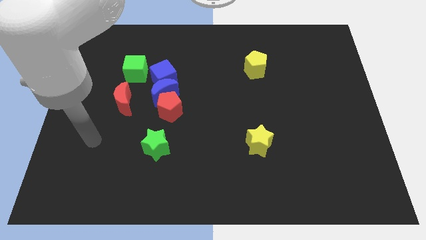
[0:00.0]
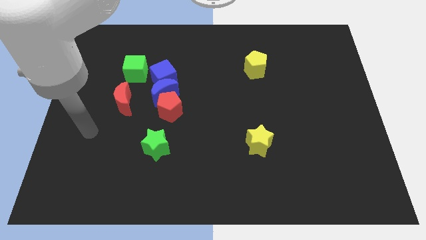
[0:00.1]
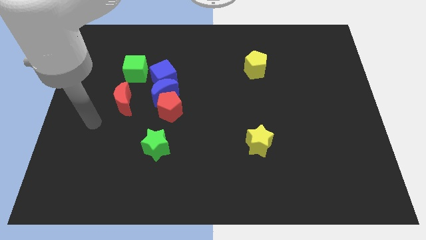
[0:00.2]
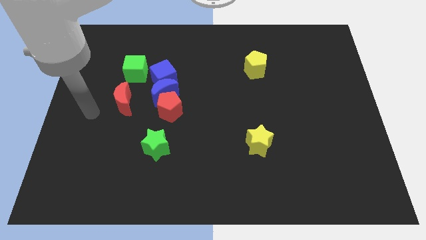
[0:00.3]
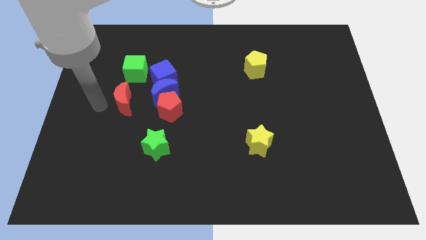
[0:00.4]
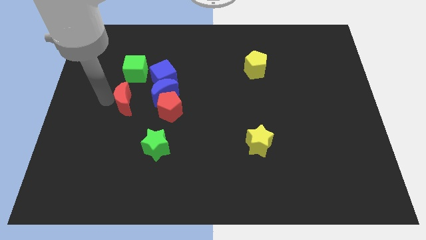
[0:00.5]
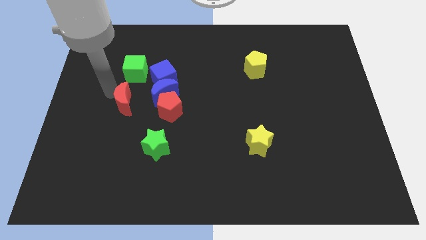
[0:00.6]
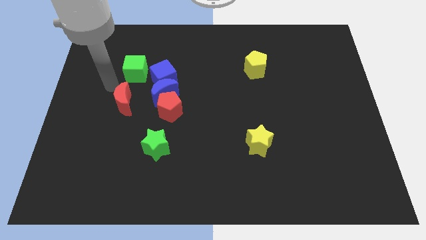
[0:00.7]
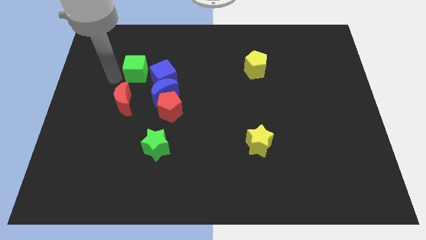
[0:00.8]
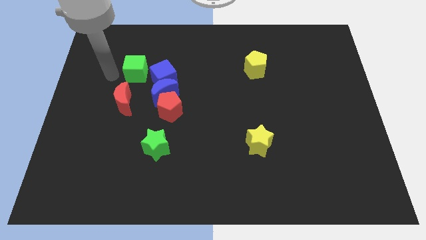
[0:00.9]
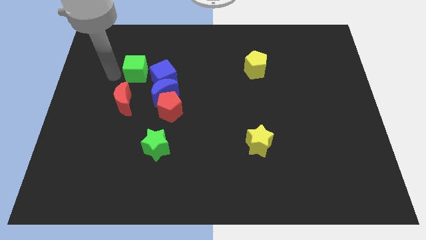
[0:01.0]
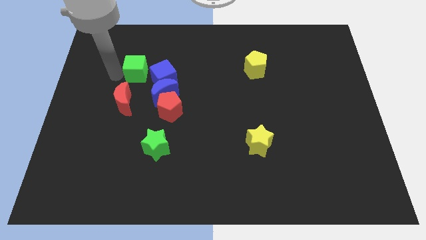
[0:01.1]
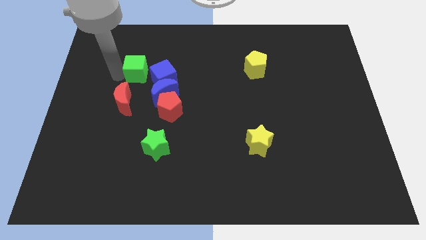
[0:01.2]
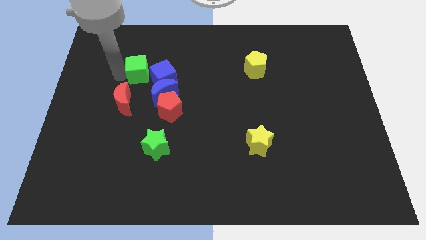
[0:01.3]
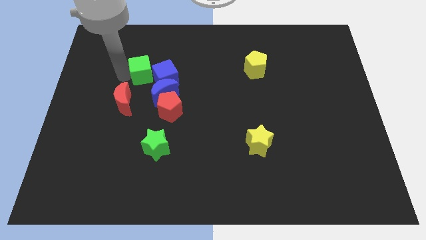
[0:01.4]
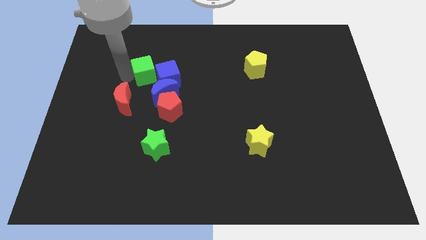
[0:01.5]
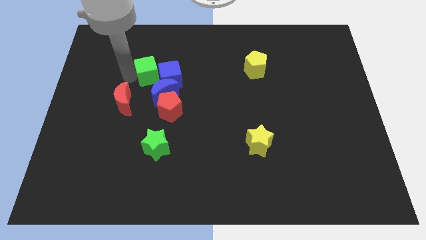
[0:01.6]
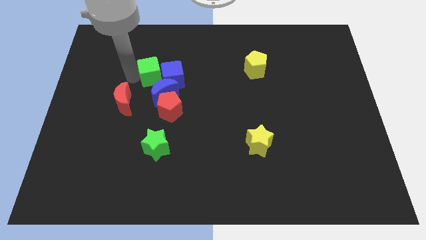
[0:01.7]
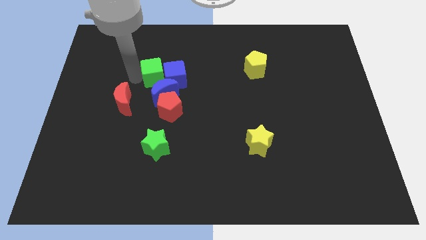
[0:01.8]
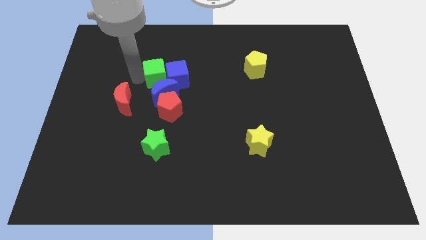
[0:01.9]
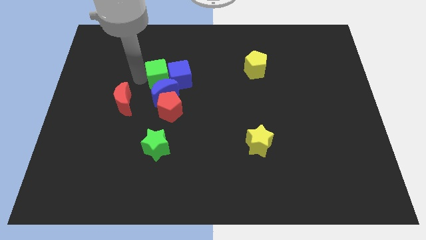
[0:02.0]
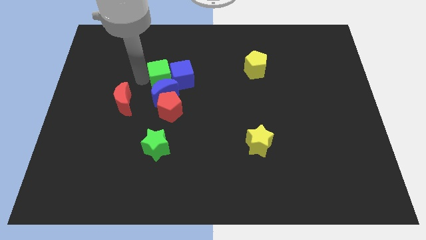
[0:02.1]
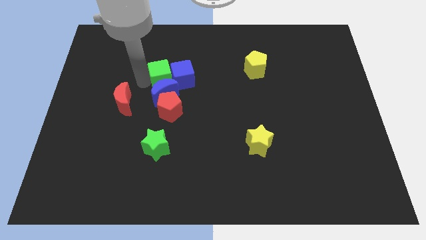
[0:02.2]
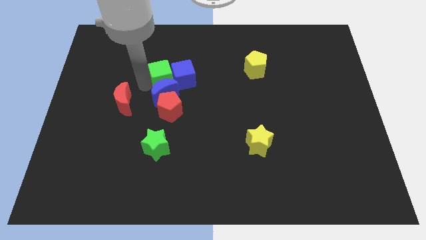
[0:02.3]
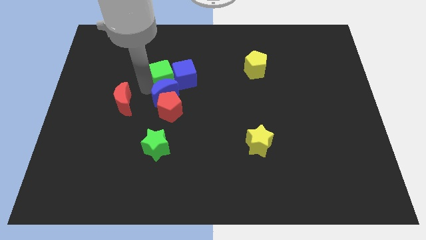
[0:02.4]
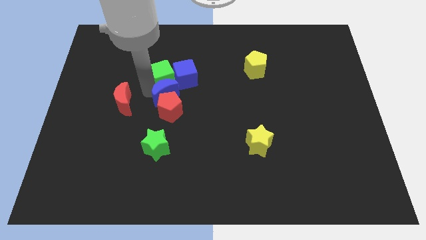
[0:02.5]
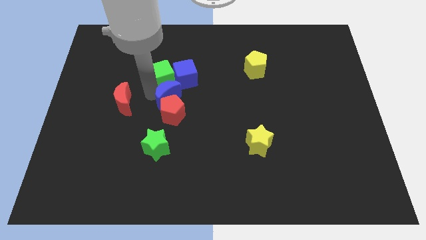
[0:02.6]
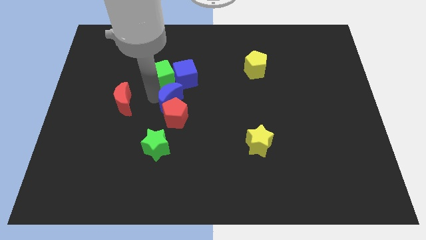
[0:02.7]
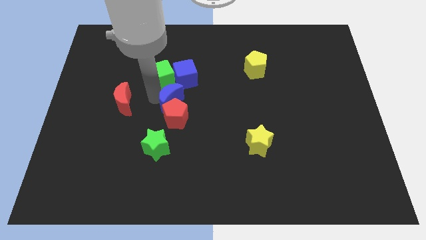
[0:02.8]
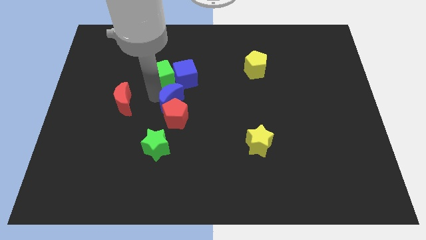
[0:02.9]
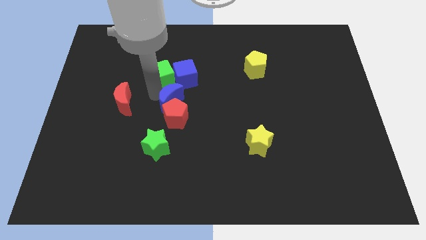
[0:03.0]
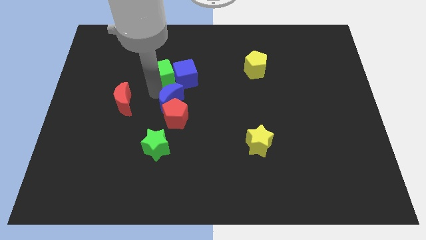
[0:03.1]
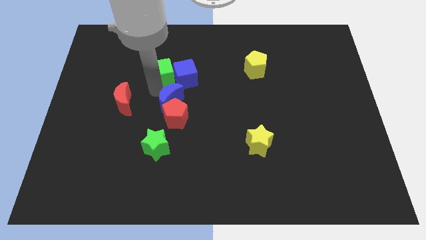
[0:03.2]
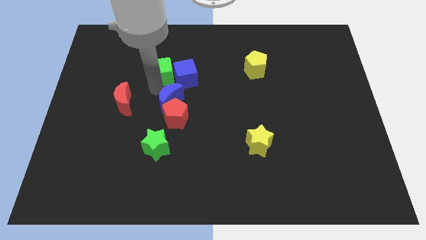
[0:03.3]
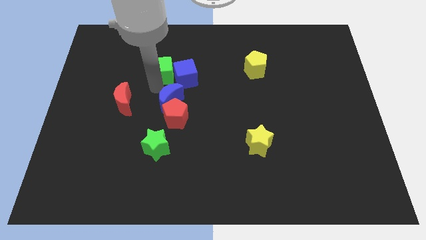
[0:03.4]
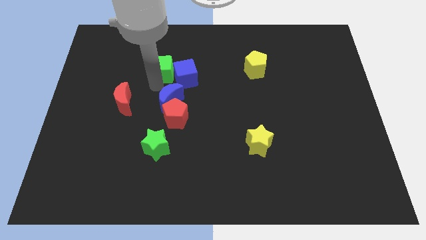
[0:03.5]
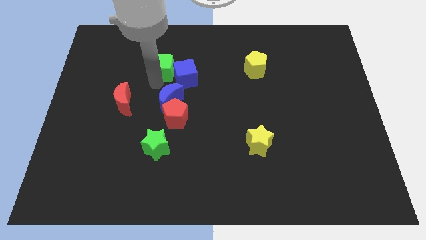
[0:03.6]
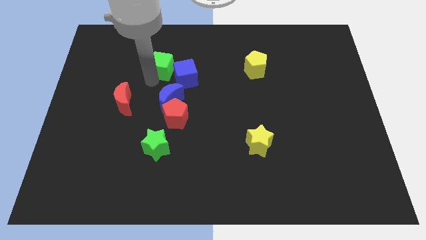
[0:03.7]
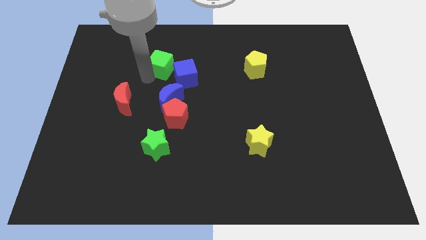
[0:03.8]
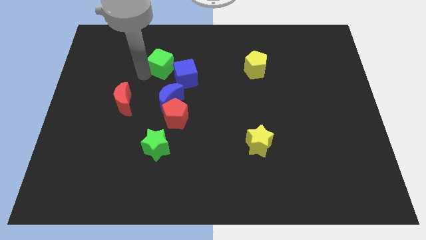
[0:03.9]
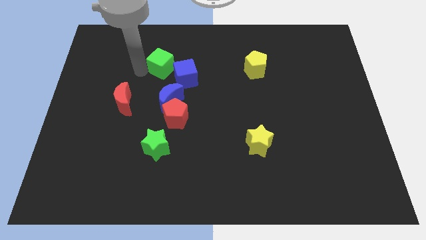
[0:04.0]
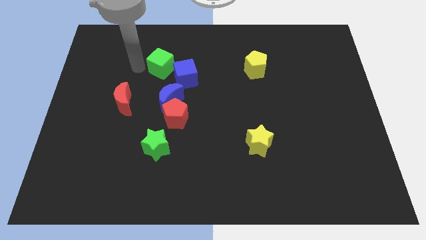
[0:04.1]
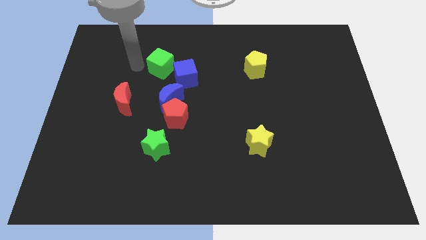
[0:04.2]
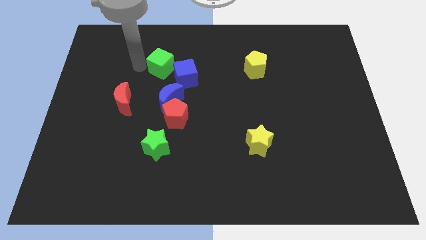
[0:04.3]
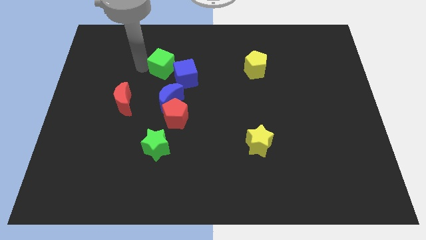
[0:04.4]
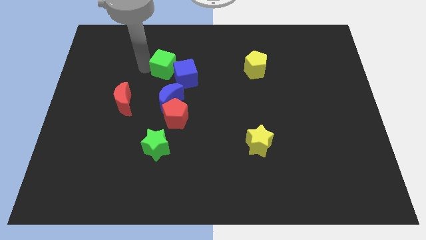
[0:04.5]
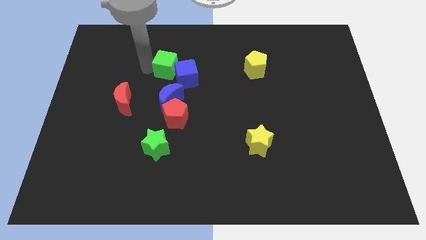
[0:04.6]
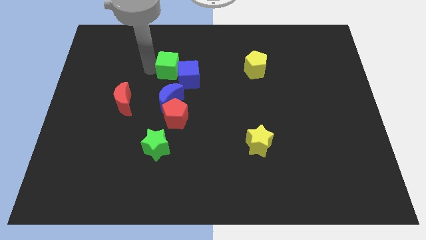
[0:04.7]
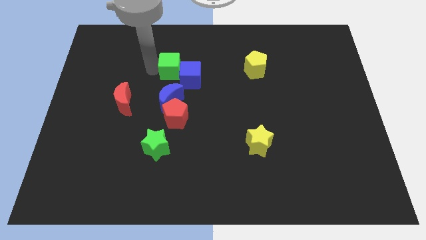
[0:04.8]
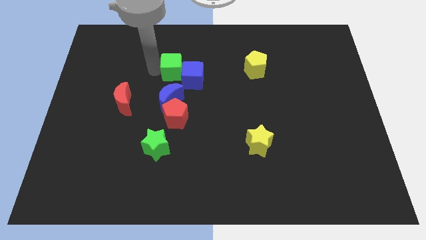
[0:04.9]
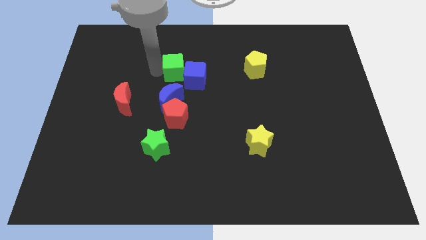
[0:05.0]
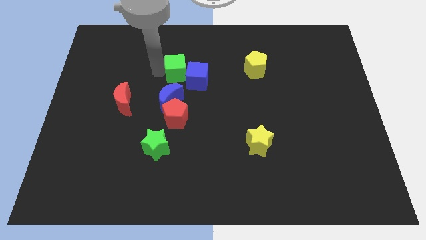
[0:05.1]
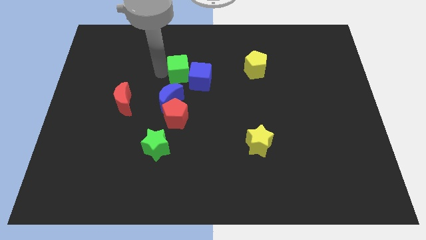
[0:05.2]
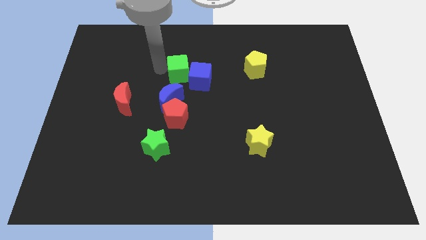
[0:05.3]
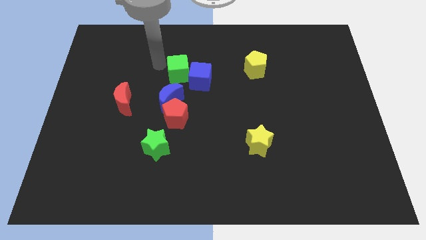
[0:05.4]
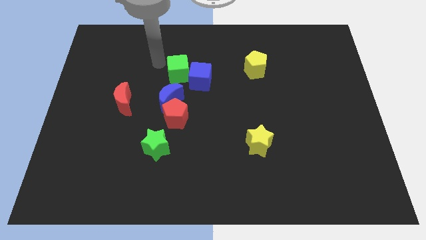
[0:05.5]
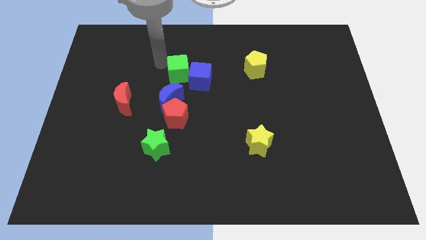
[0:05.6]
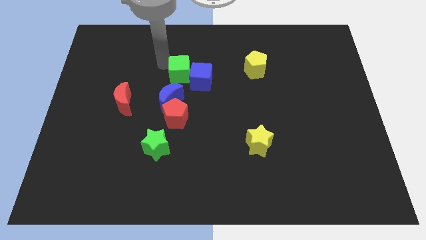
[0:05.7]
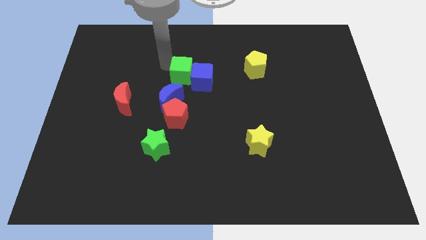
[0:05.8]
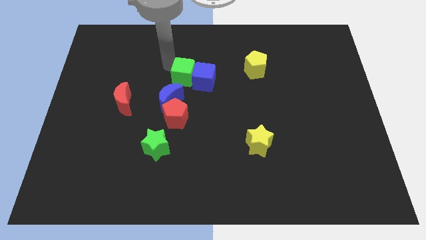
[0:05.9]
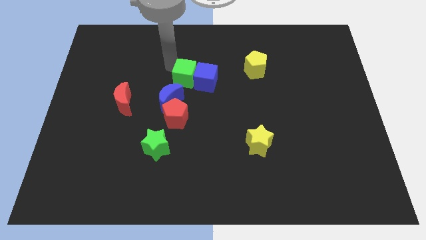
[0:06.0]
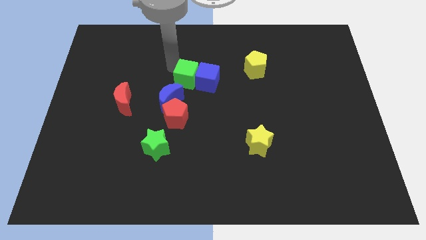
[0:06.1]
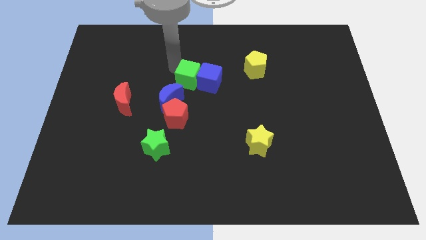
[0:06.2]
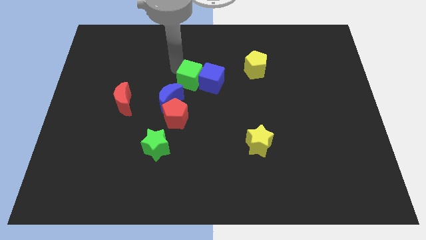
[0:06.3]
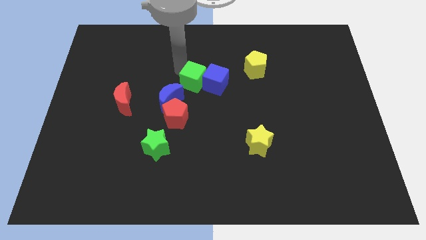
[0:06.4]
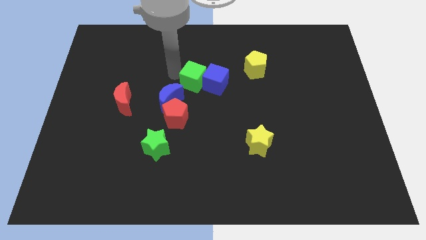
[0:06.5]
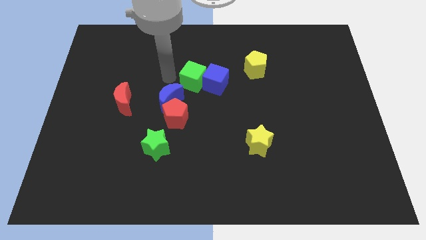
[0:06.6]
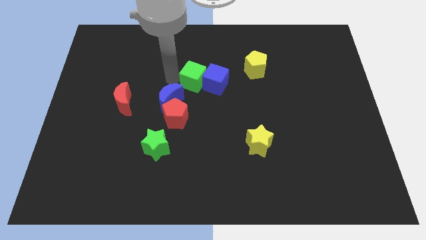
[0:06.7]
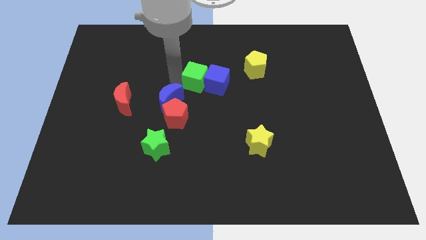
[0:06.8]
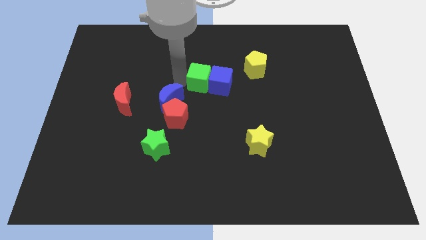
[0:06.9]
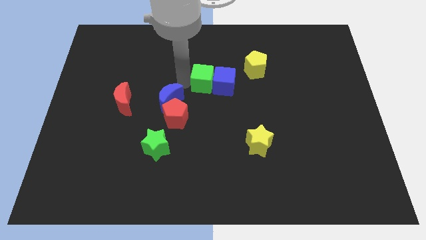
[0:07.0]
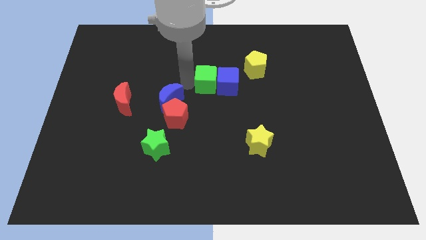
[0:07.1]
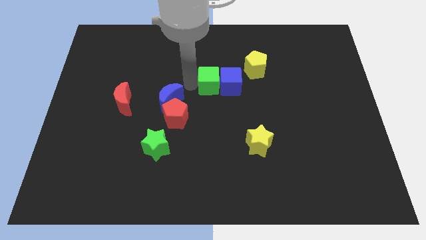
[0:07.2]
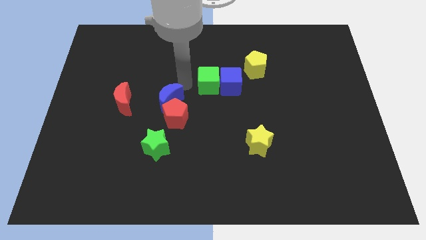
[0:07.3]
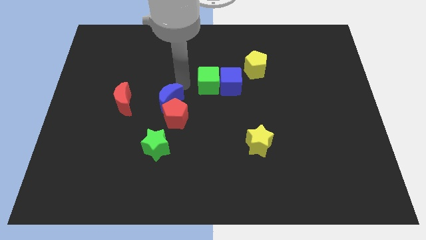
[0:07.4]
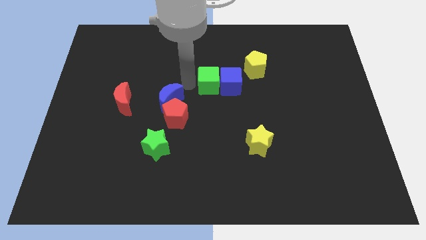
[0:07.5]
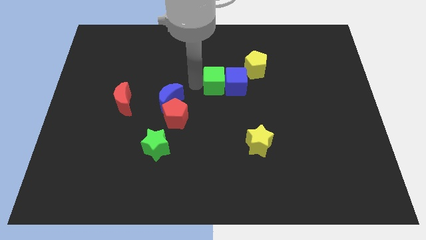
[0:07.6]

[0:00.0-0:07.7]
push the green cube to the bottom left side of the yellow pentagon

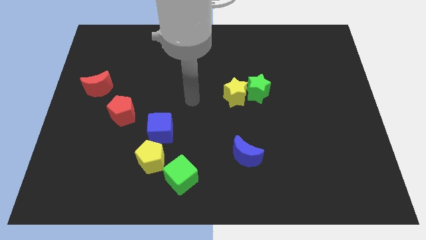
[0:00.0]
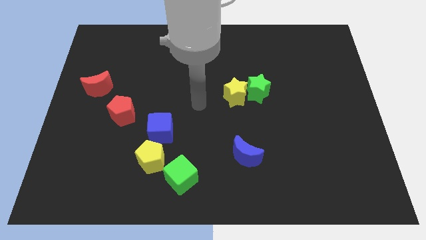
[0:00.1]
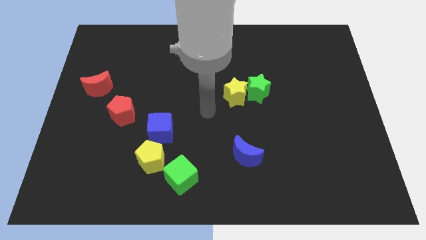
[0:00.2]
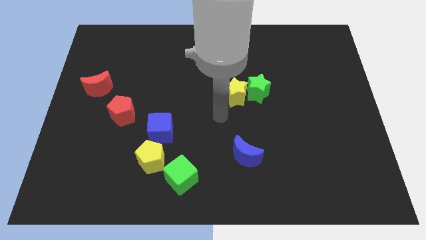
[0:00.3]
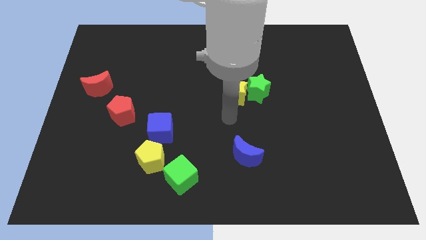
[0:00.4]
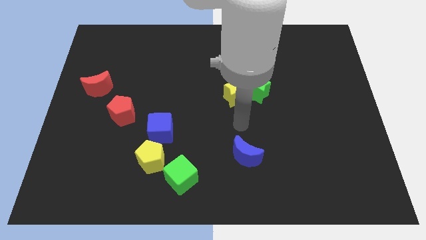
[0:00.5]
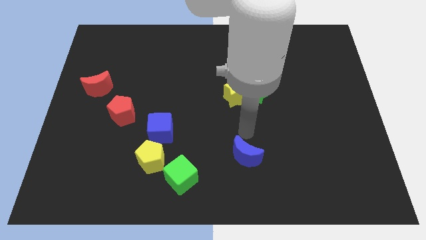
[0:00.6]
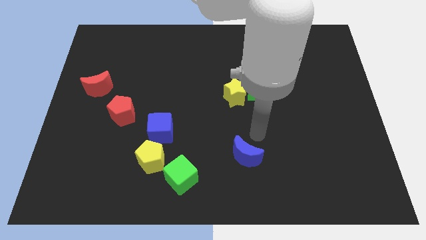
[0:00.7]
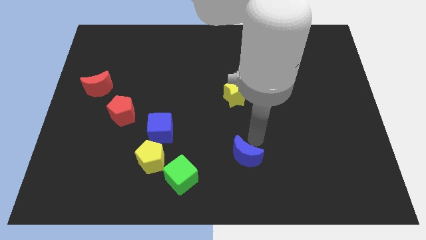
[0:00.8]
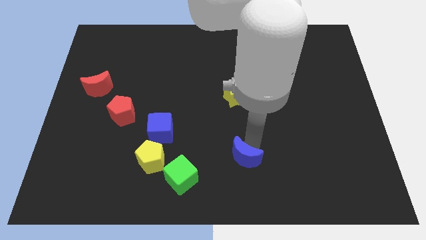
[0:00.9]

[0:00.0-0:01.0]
move the blue moon to the right of the green cube
